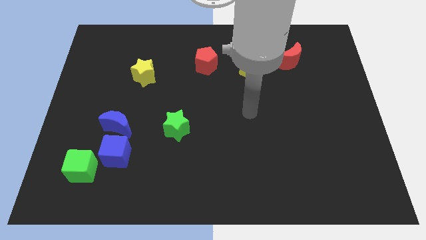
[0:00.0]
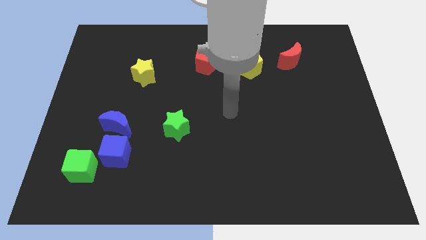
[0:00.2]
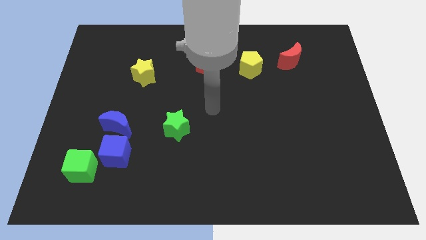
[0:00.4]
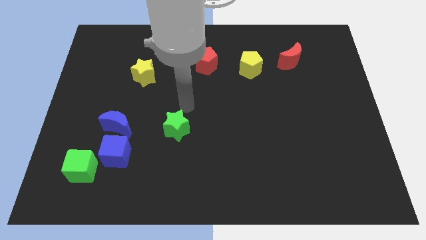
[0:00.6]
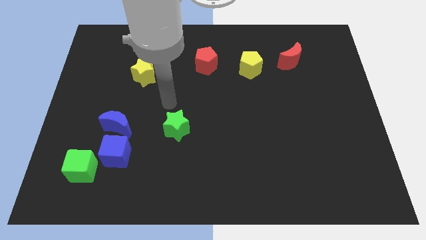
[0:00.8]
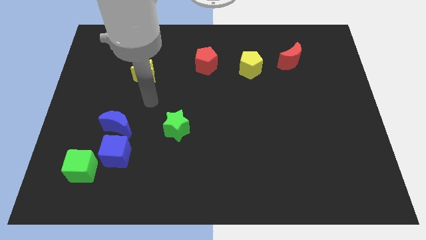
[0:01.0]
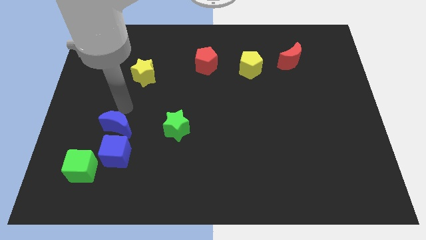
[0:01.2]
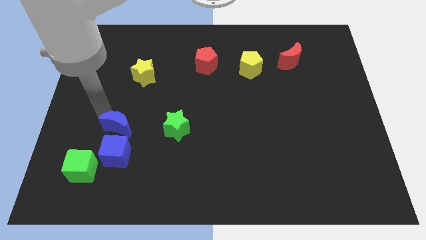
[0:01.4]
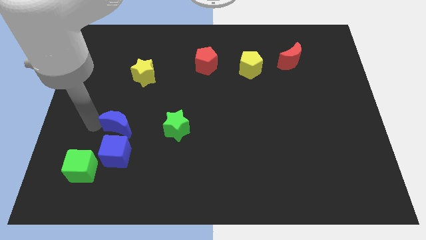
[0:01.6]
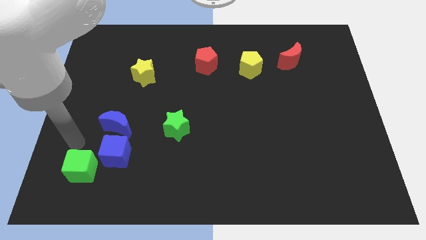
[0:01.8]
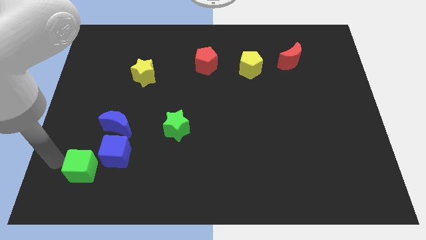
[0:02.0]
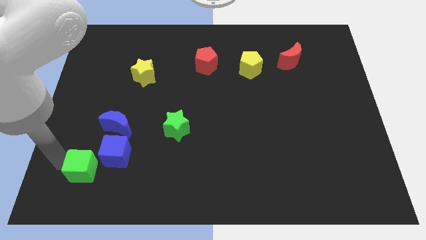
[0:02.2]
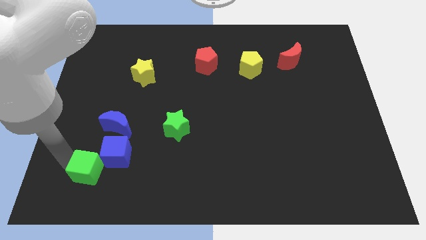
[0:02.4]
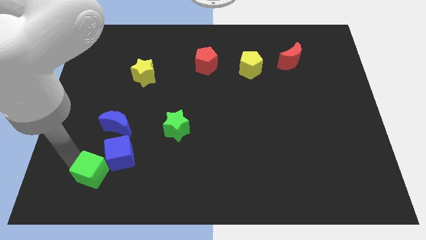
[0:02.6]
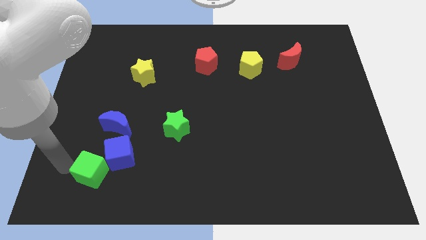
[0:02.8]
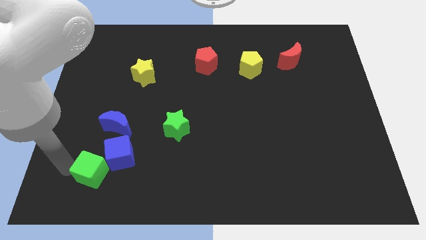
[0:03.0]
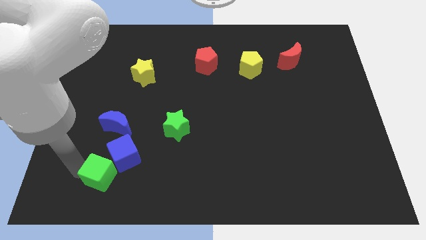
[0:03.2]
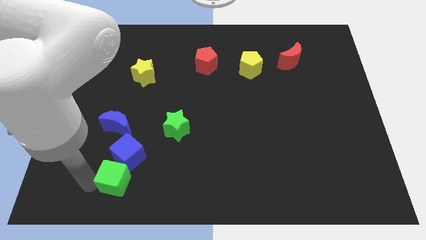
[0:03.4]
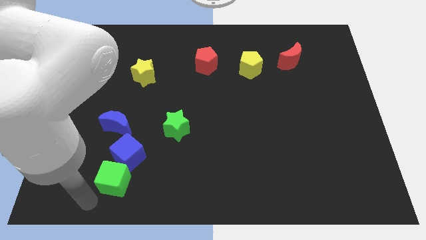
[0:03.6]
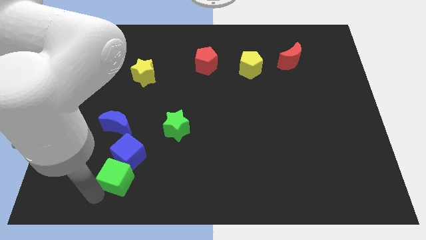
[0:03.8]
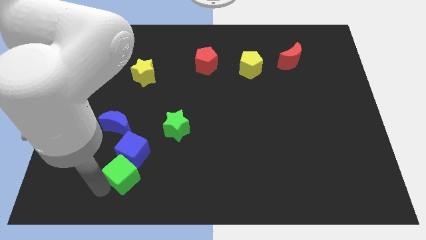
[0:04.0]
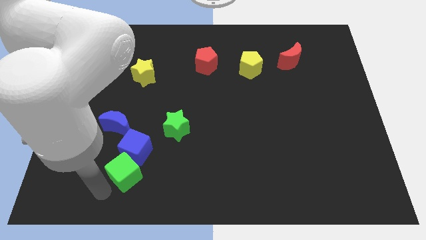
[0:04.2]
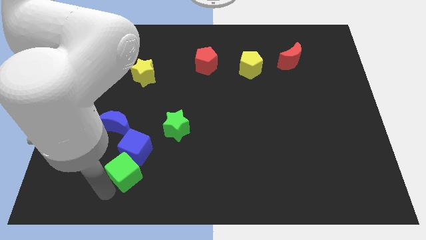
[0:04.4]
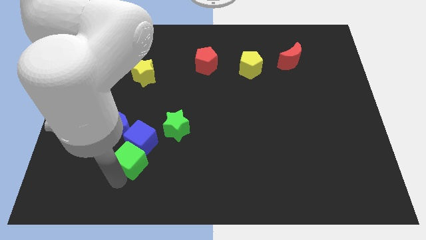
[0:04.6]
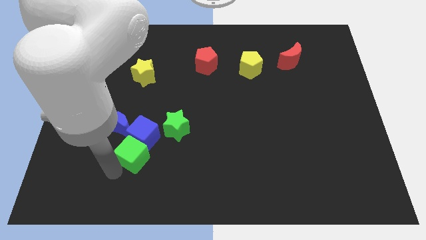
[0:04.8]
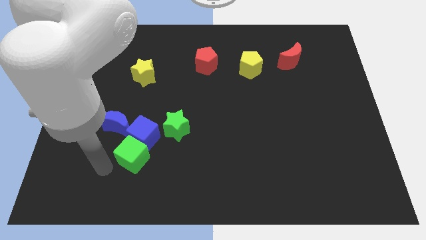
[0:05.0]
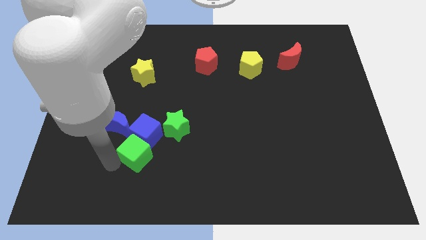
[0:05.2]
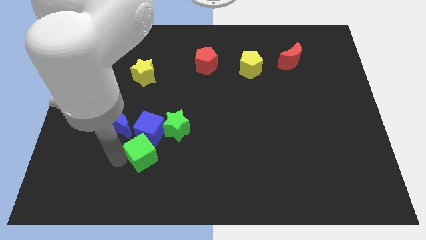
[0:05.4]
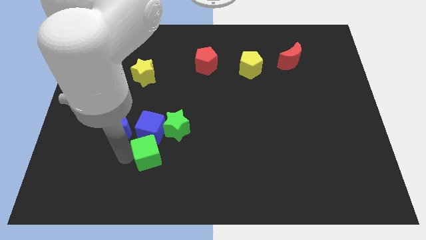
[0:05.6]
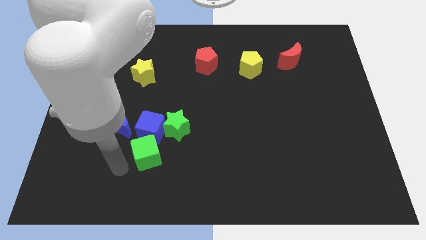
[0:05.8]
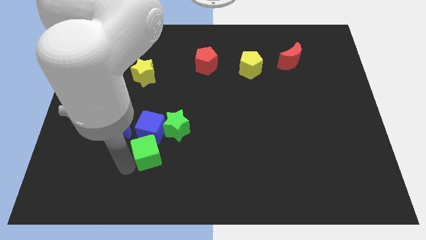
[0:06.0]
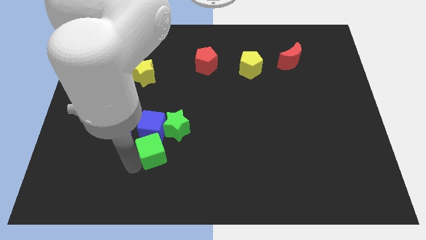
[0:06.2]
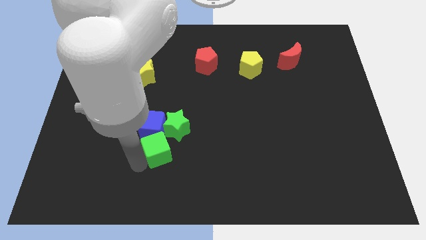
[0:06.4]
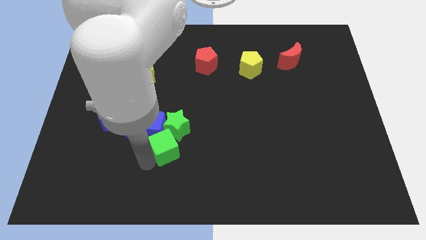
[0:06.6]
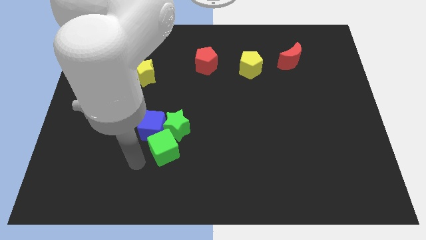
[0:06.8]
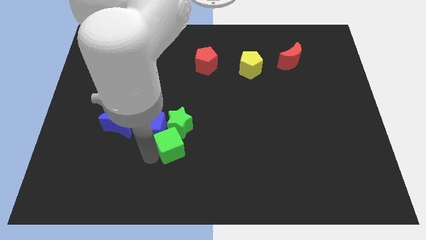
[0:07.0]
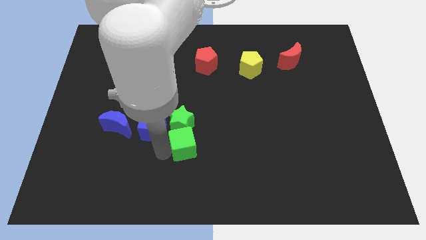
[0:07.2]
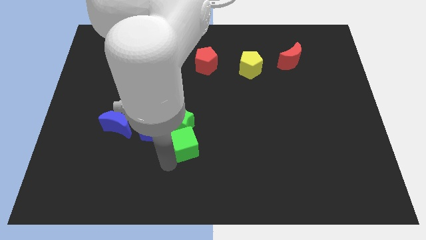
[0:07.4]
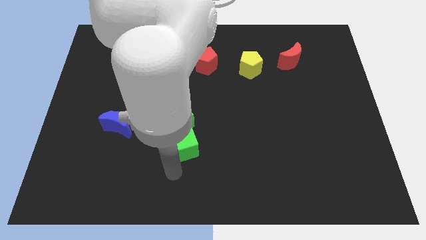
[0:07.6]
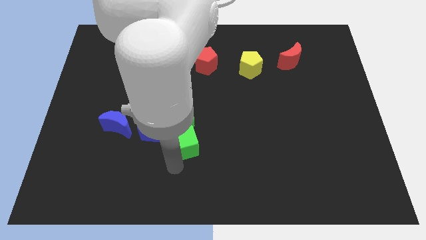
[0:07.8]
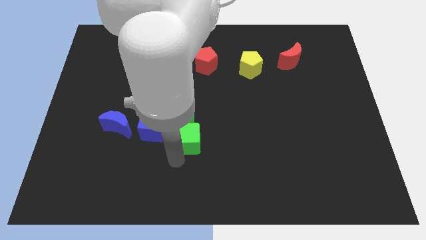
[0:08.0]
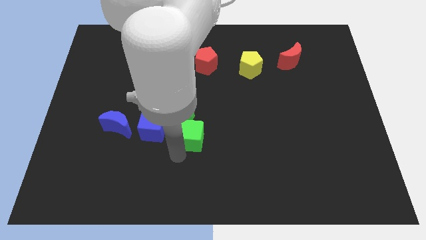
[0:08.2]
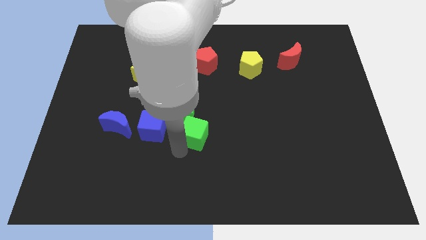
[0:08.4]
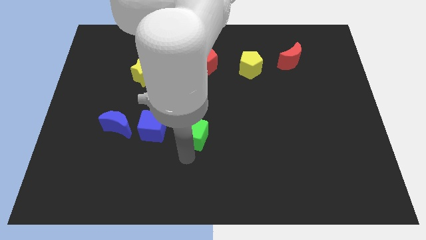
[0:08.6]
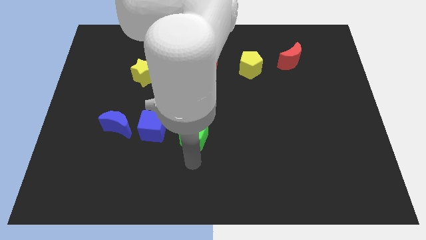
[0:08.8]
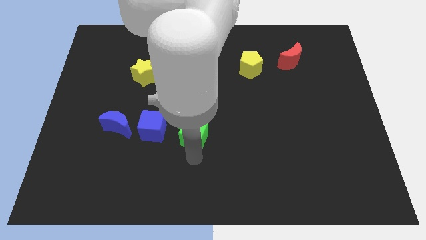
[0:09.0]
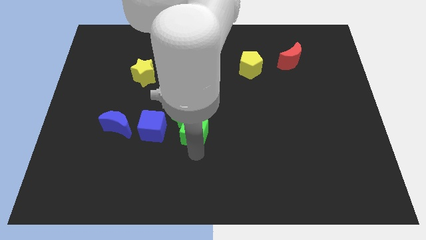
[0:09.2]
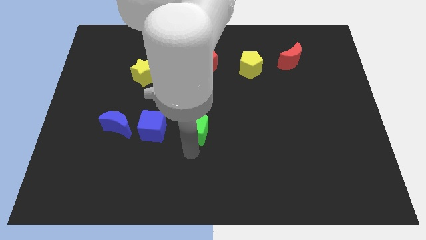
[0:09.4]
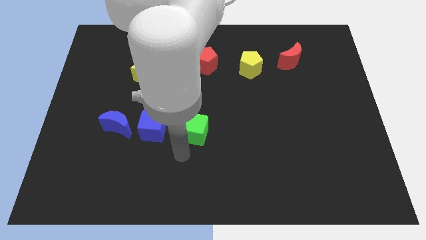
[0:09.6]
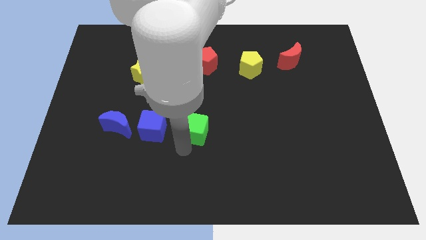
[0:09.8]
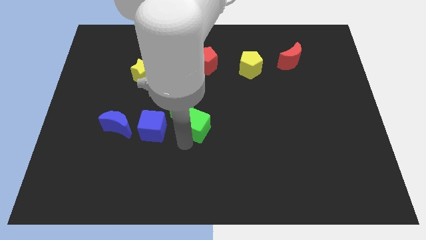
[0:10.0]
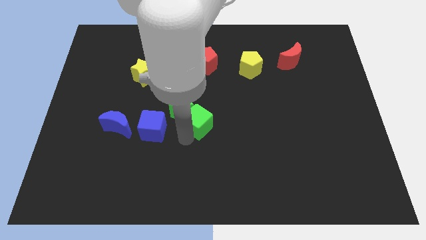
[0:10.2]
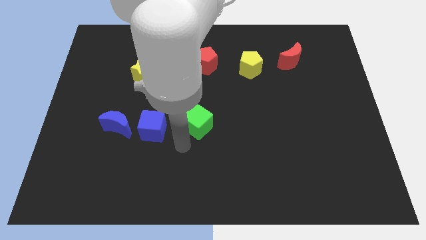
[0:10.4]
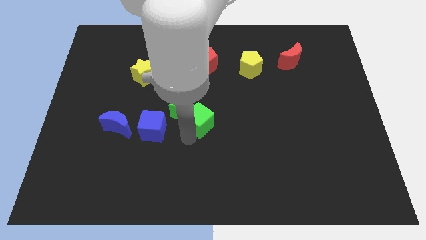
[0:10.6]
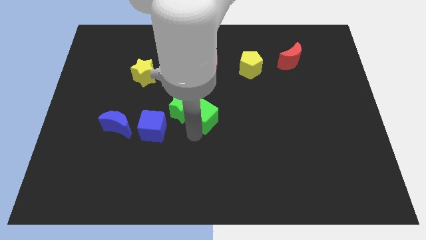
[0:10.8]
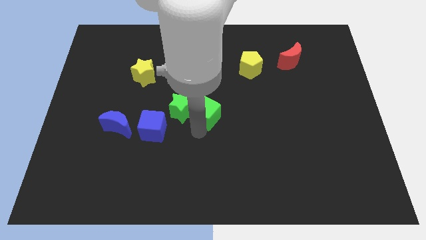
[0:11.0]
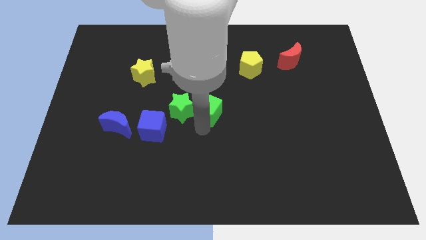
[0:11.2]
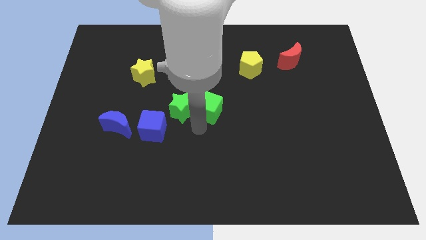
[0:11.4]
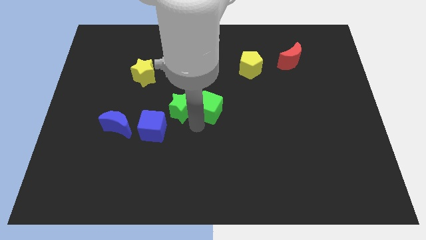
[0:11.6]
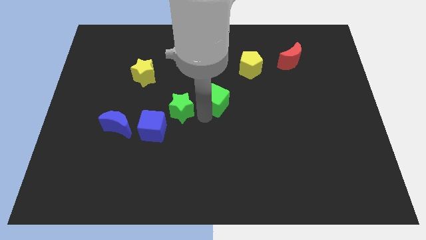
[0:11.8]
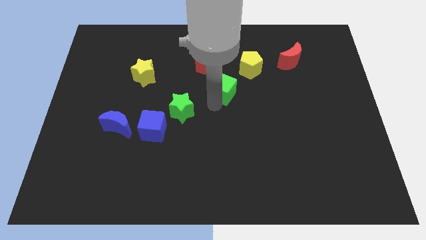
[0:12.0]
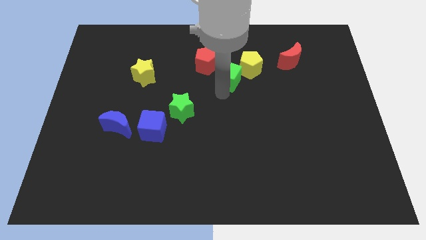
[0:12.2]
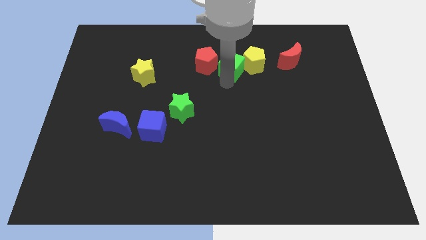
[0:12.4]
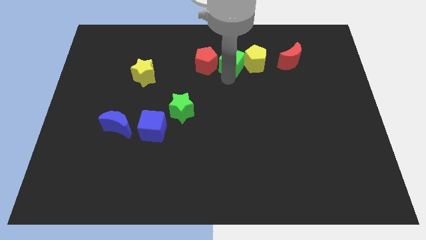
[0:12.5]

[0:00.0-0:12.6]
push the green cube to the left side of the red moon
